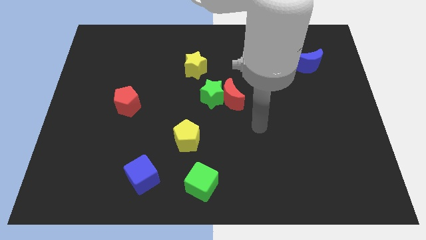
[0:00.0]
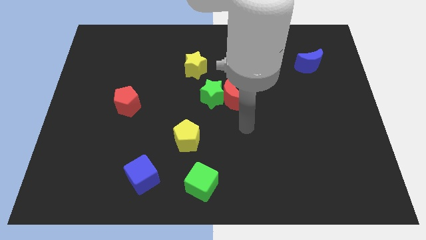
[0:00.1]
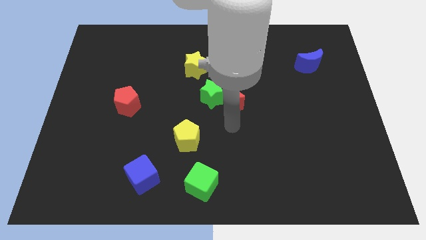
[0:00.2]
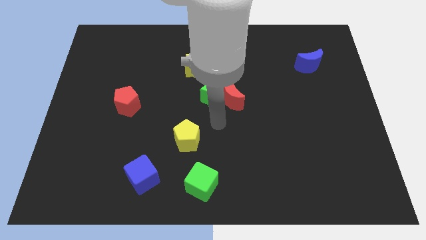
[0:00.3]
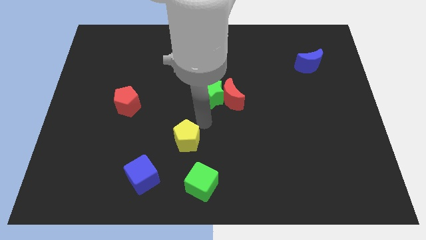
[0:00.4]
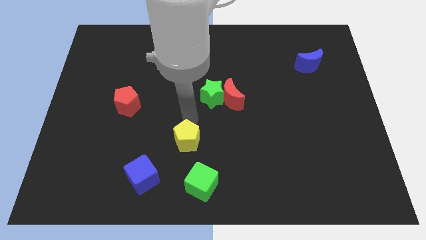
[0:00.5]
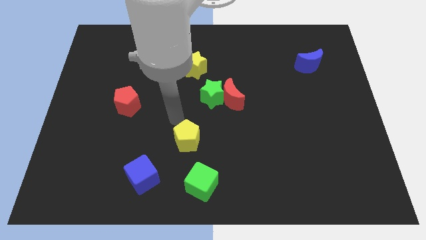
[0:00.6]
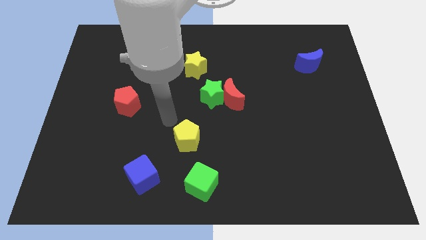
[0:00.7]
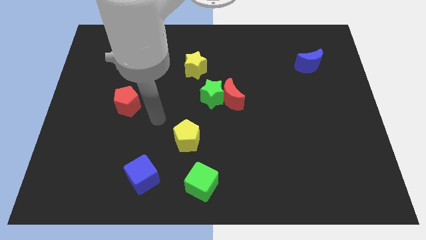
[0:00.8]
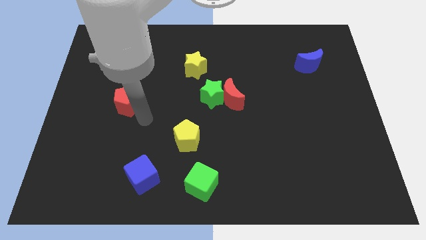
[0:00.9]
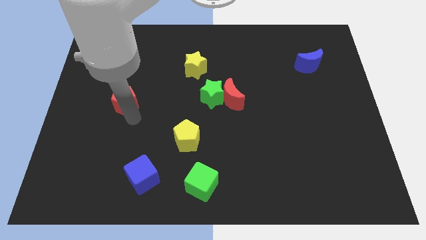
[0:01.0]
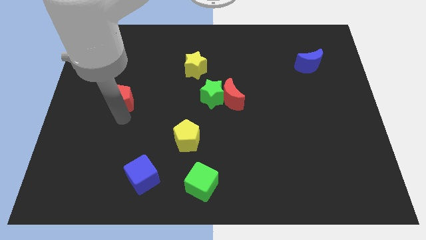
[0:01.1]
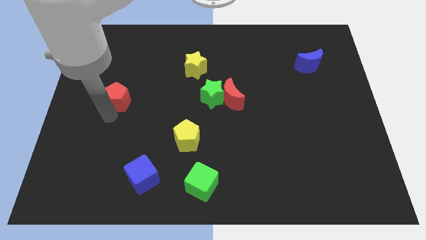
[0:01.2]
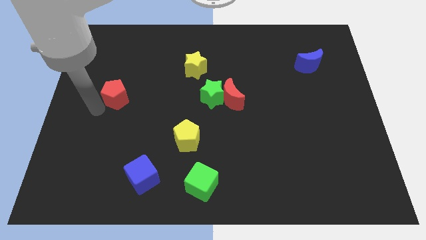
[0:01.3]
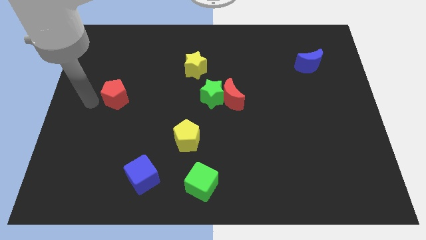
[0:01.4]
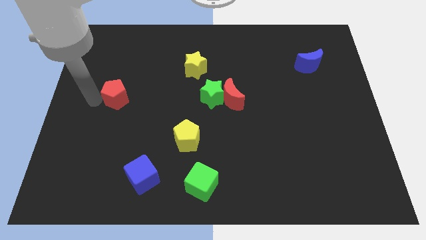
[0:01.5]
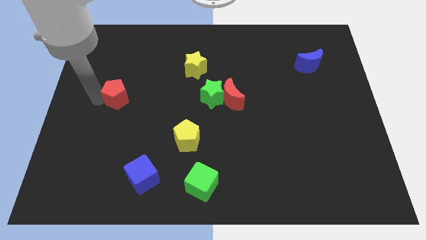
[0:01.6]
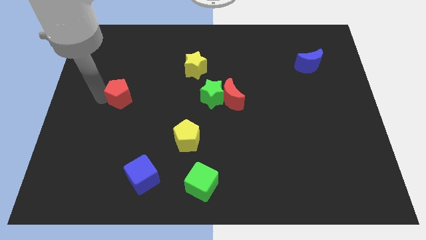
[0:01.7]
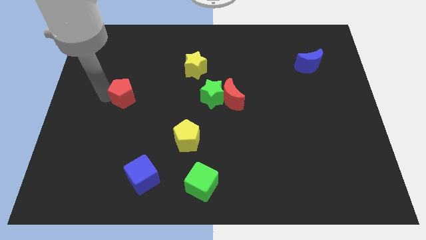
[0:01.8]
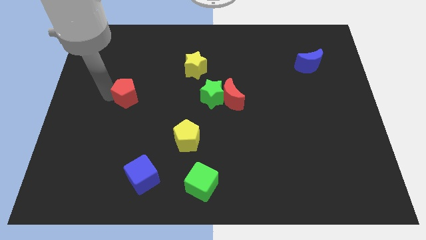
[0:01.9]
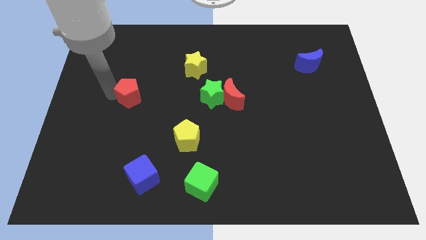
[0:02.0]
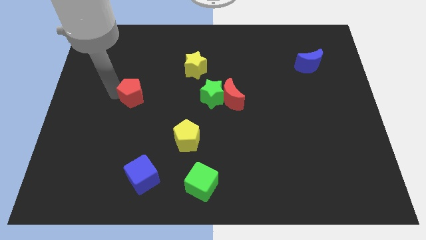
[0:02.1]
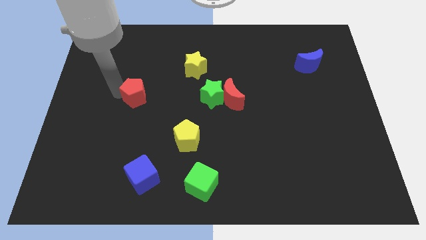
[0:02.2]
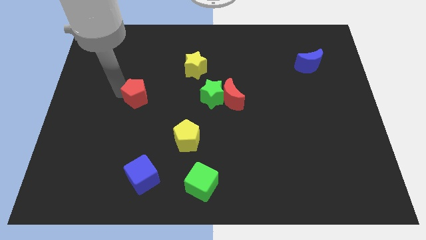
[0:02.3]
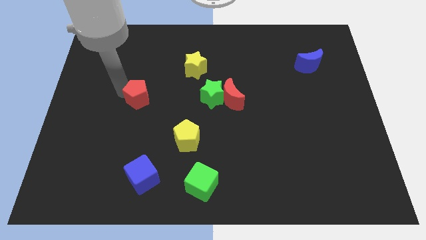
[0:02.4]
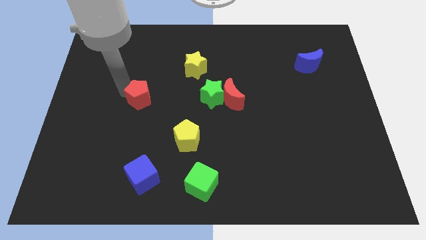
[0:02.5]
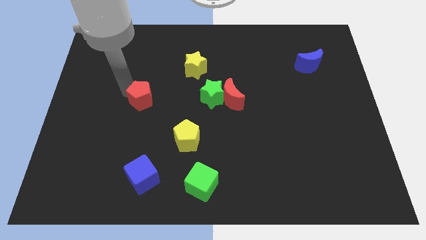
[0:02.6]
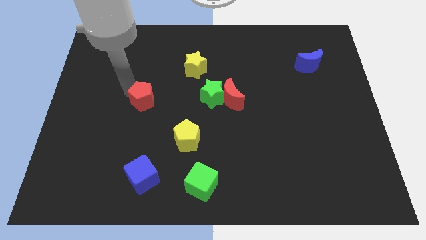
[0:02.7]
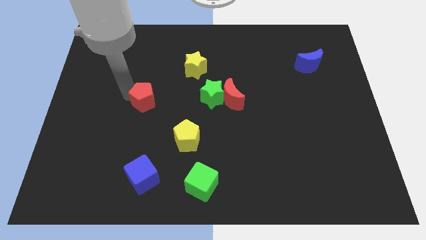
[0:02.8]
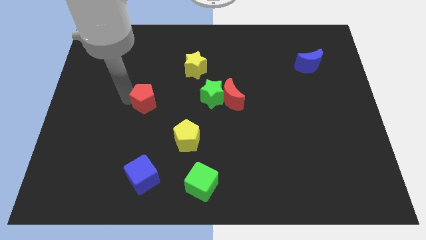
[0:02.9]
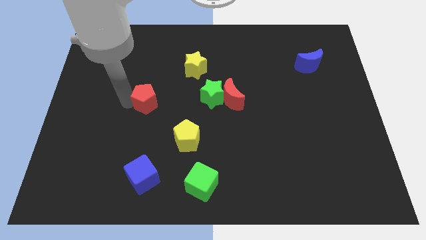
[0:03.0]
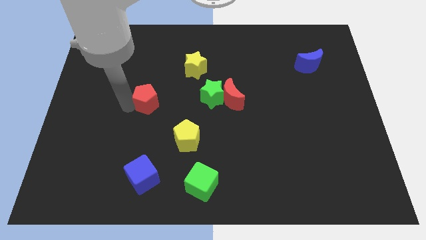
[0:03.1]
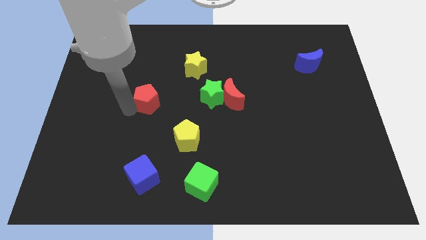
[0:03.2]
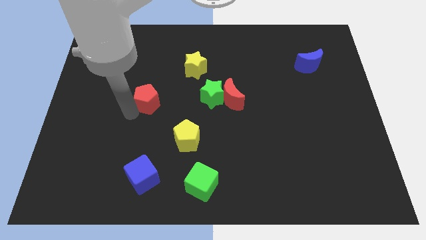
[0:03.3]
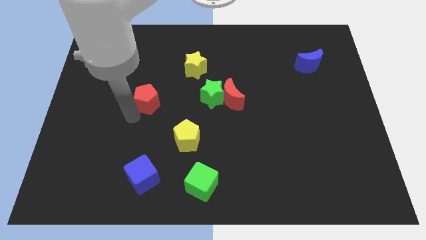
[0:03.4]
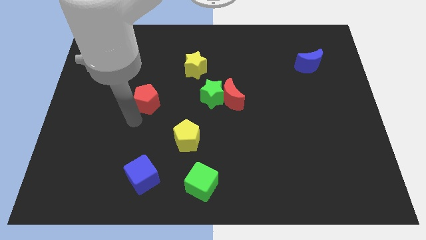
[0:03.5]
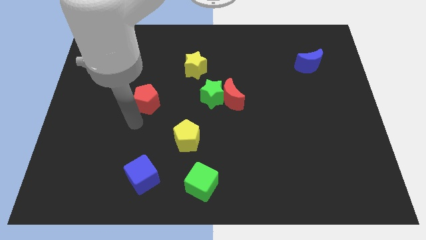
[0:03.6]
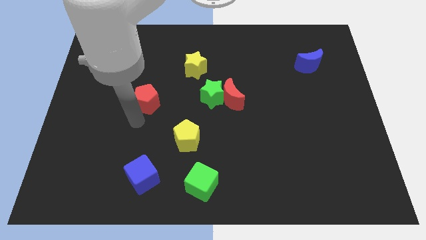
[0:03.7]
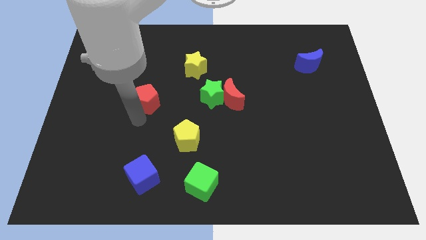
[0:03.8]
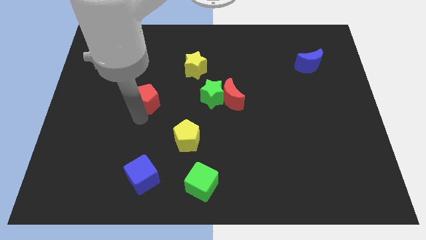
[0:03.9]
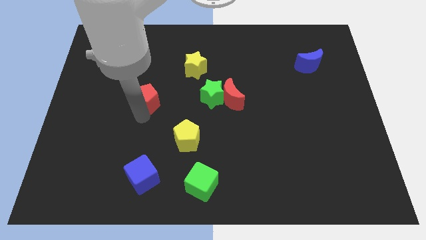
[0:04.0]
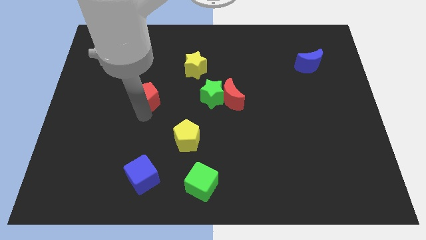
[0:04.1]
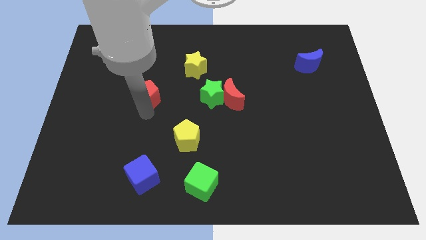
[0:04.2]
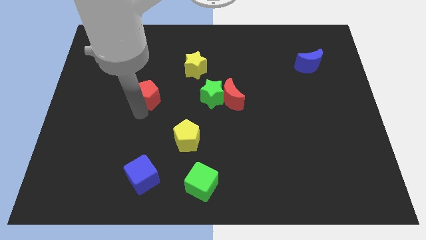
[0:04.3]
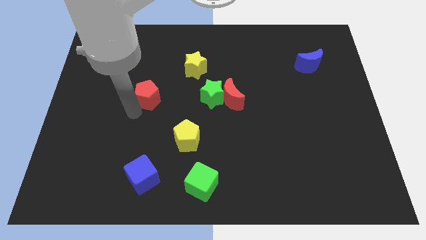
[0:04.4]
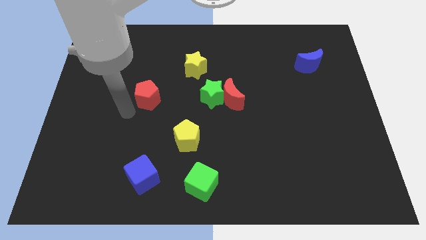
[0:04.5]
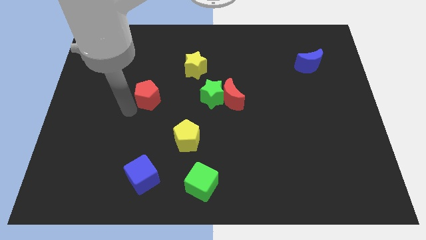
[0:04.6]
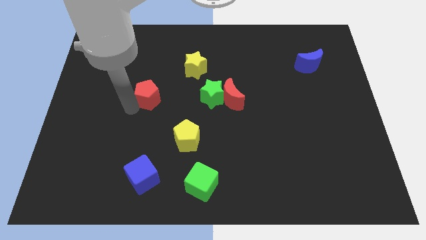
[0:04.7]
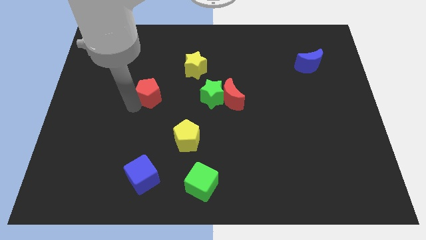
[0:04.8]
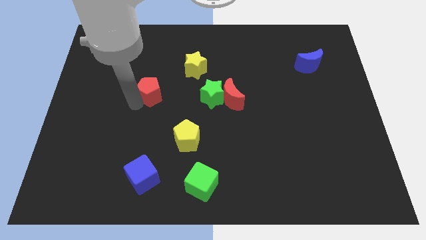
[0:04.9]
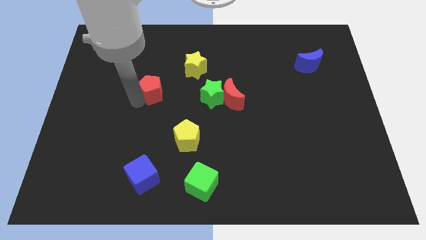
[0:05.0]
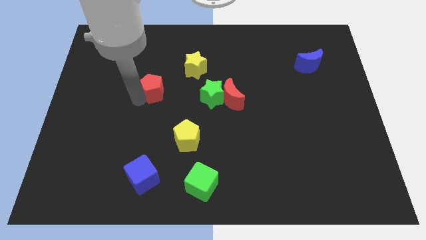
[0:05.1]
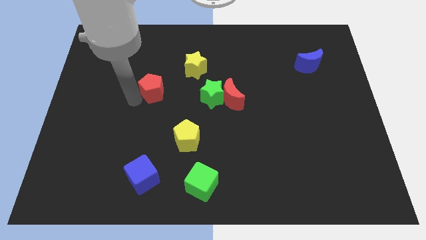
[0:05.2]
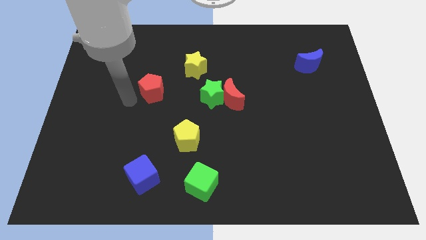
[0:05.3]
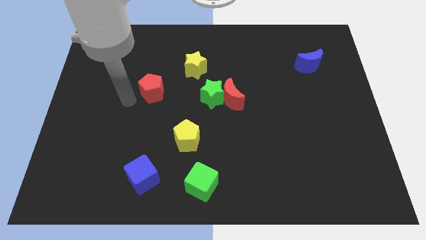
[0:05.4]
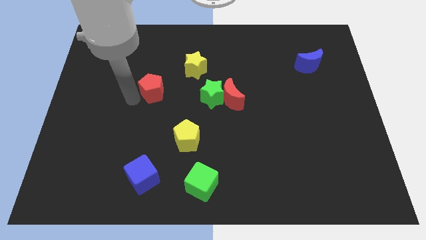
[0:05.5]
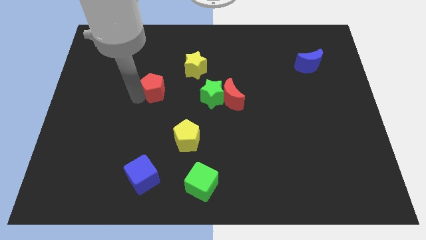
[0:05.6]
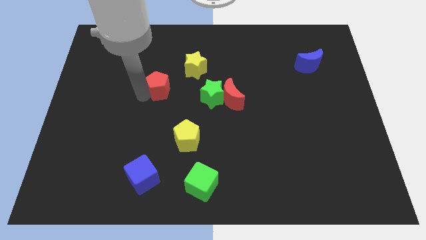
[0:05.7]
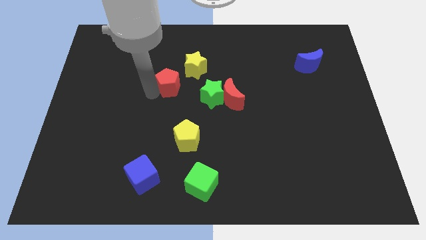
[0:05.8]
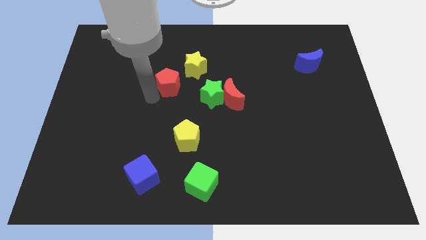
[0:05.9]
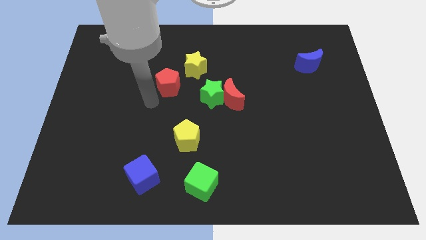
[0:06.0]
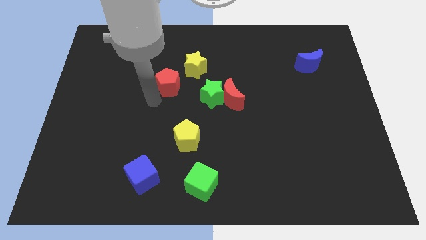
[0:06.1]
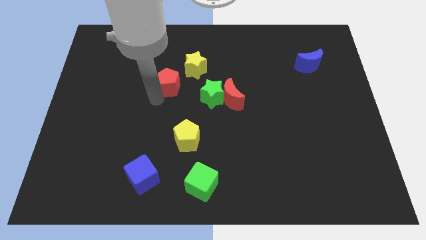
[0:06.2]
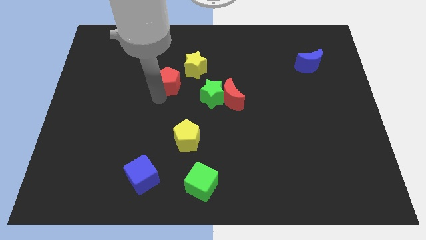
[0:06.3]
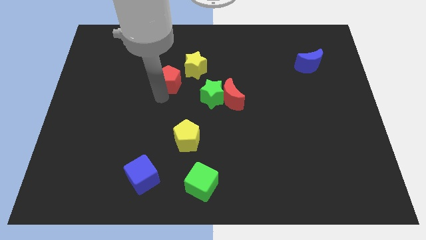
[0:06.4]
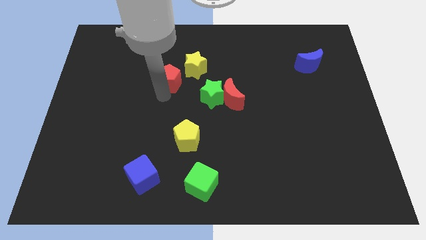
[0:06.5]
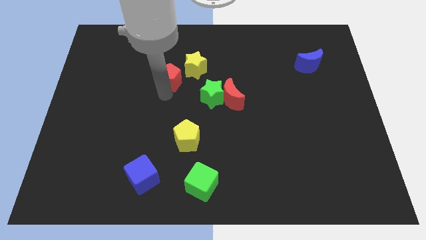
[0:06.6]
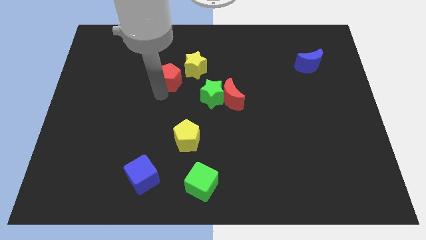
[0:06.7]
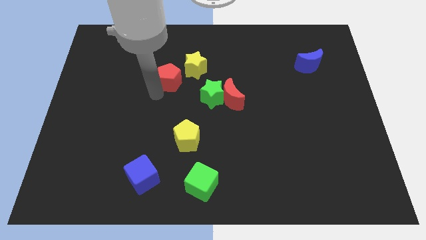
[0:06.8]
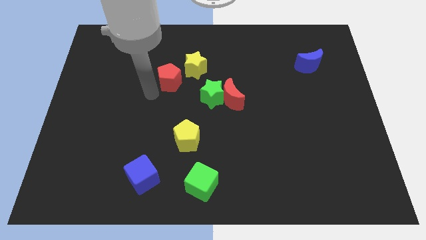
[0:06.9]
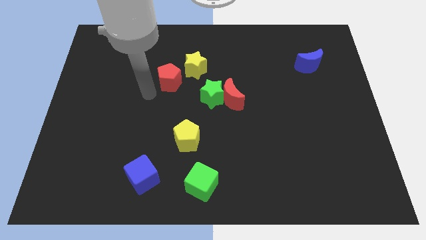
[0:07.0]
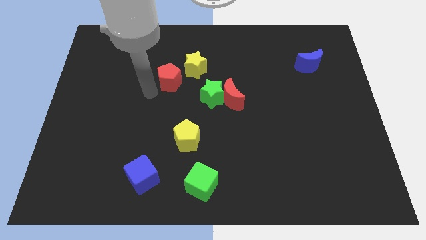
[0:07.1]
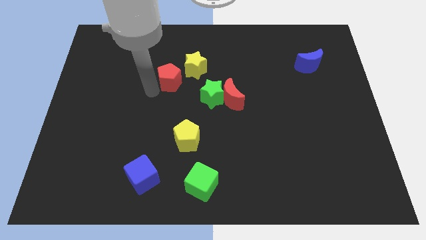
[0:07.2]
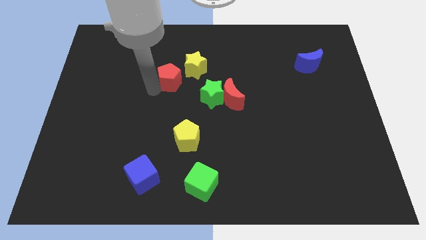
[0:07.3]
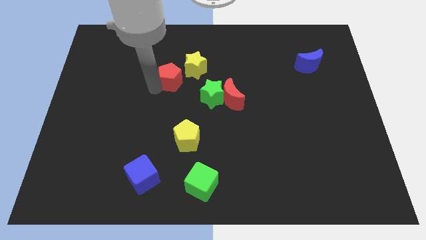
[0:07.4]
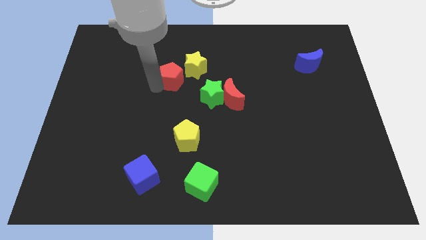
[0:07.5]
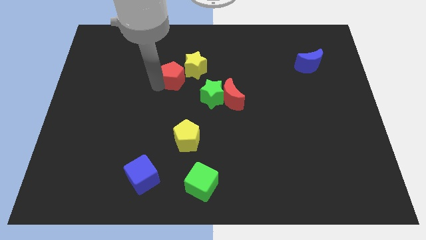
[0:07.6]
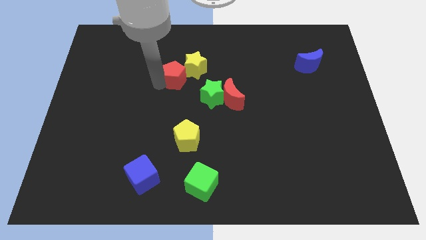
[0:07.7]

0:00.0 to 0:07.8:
push the red pentagon close to the yellow star
